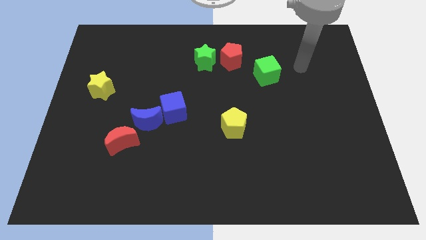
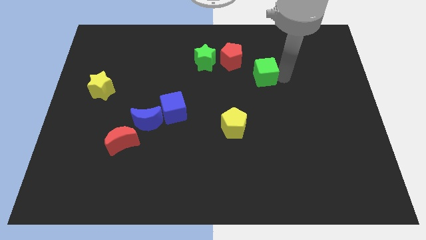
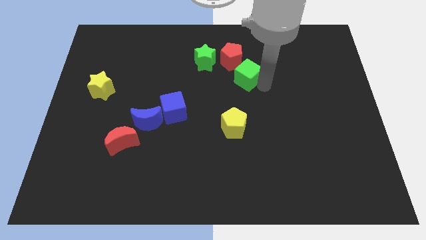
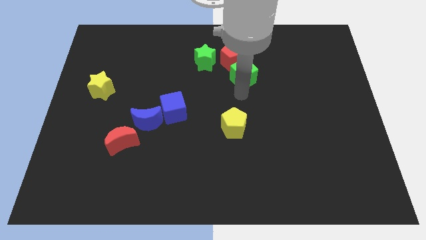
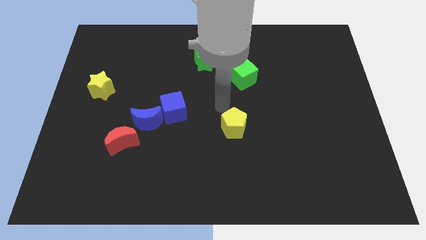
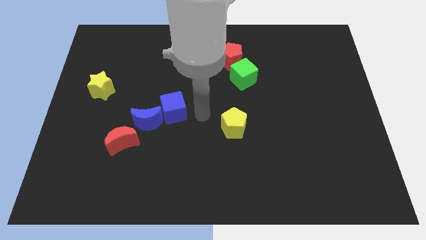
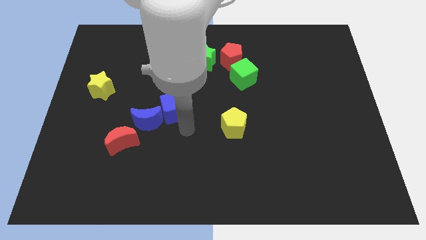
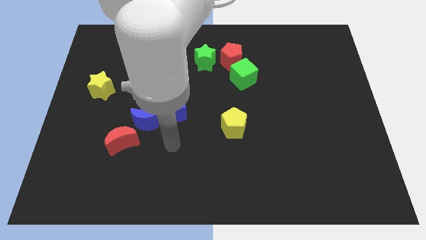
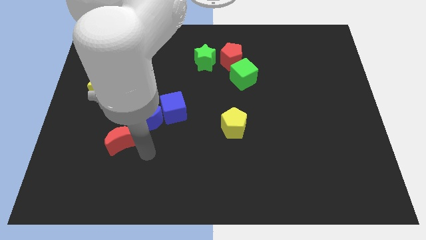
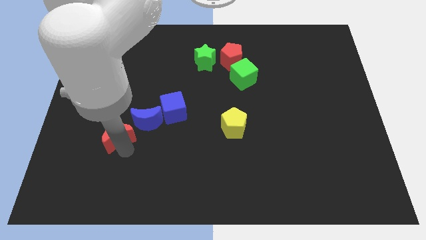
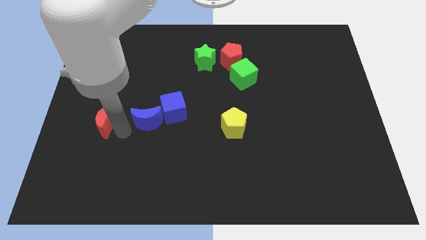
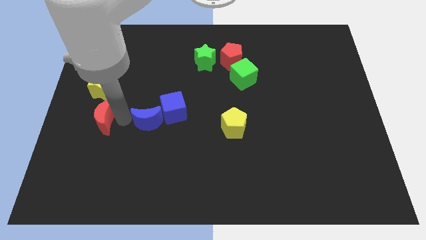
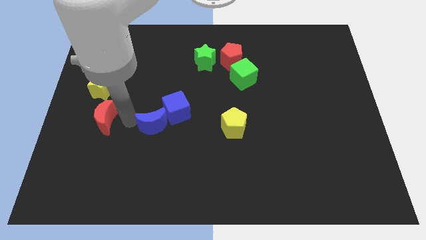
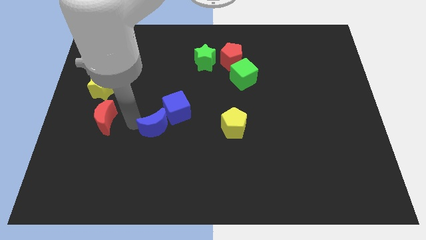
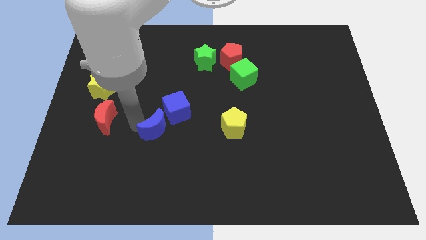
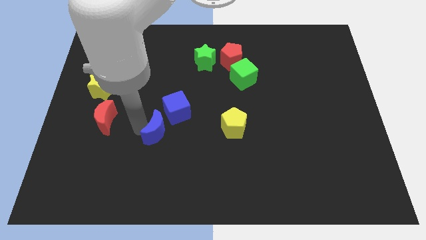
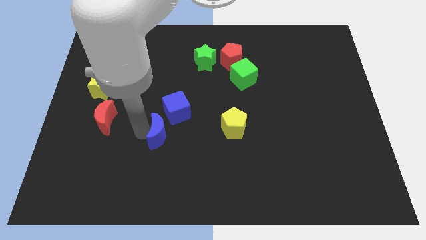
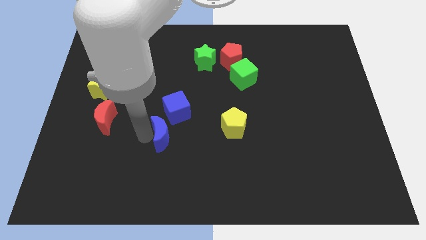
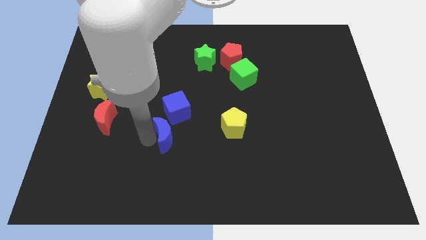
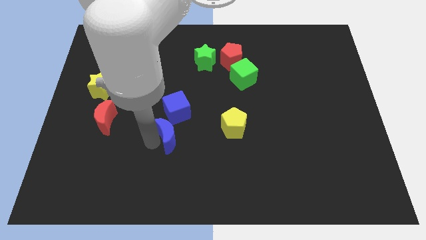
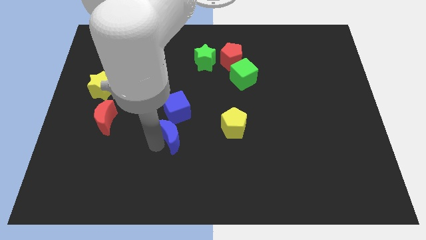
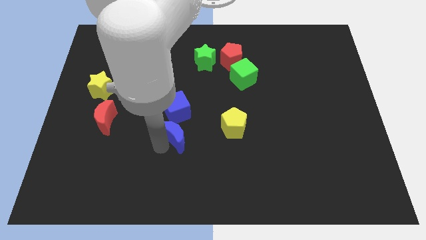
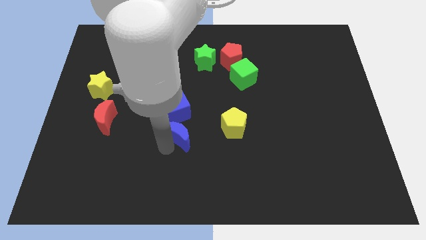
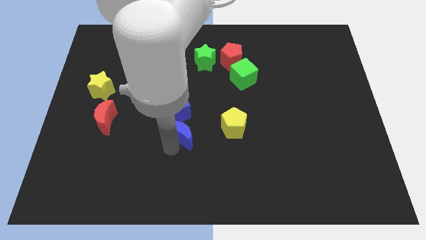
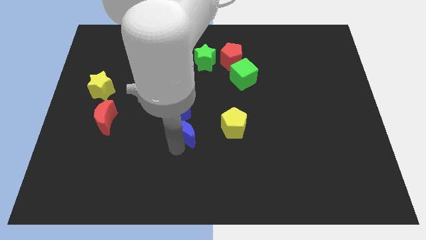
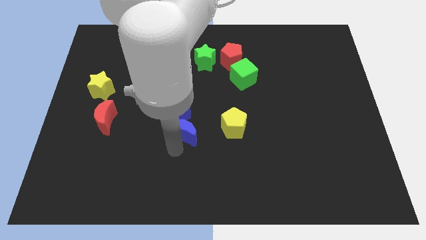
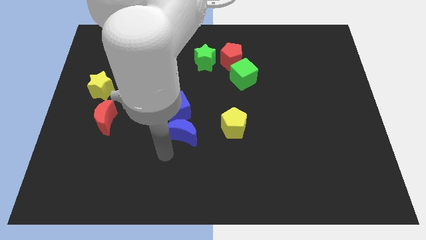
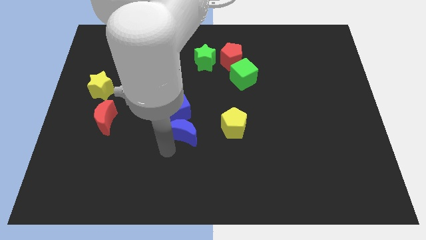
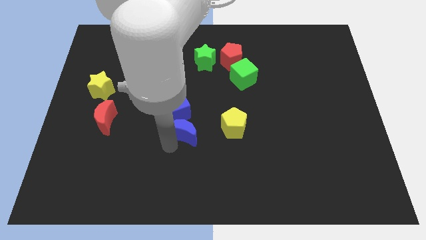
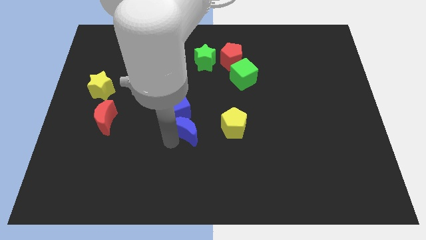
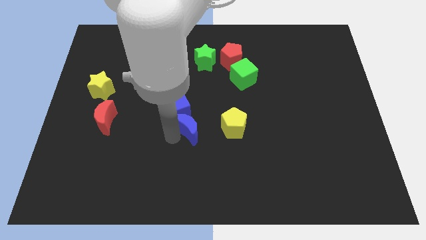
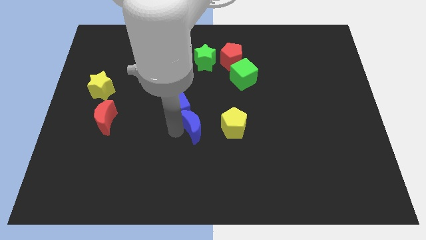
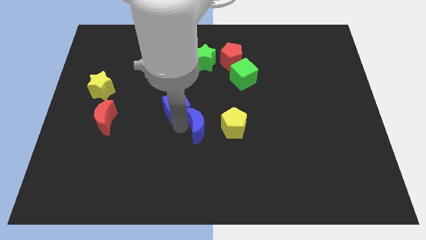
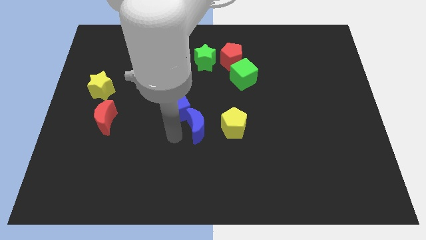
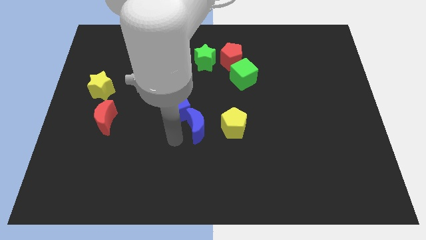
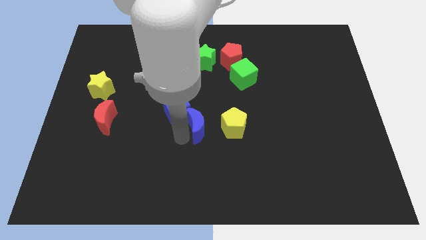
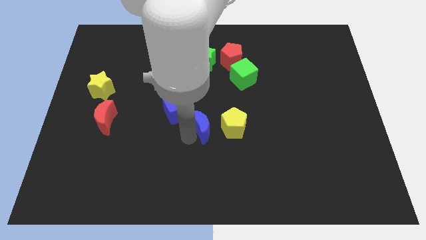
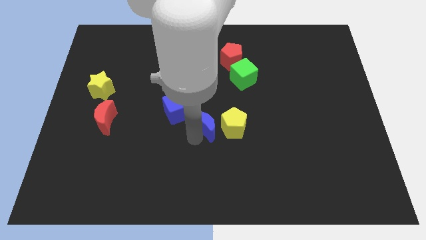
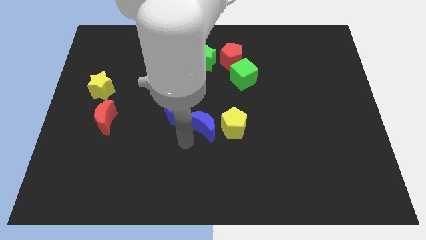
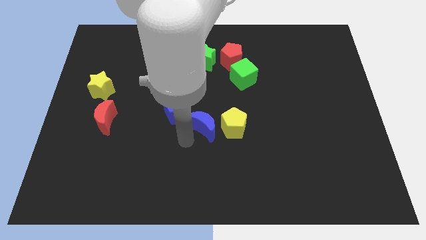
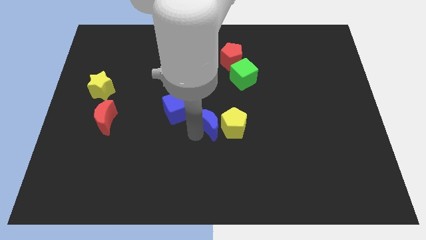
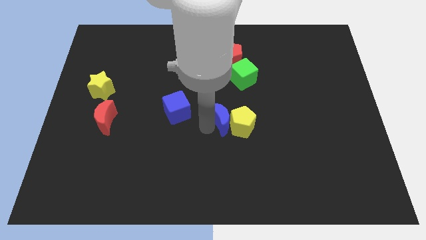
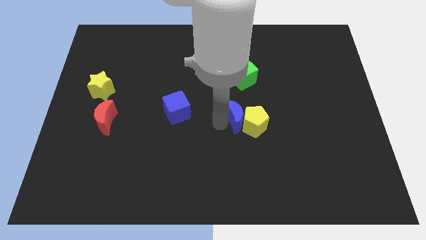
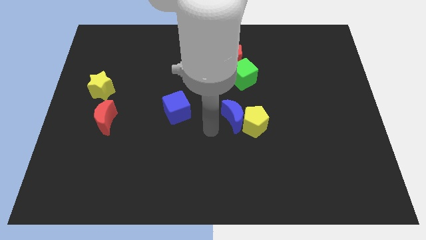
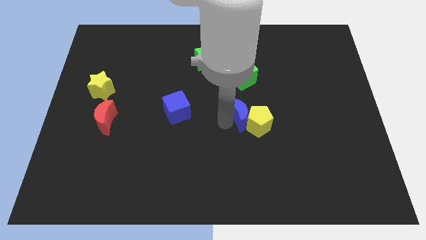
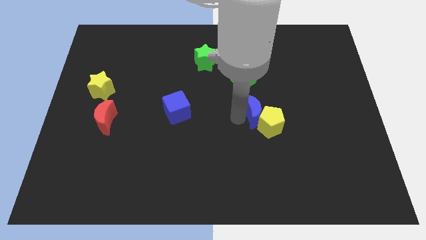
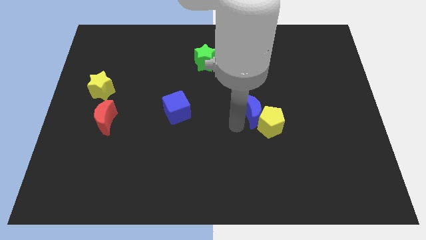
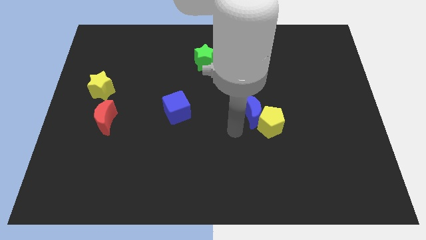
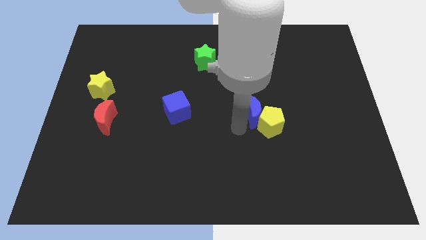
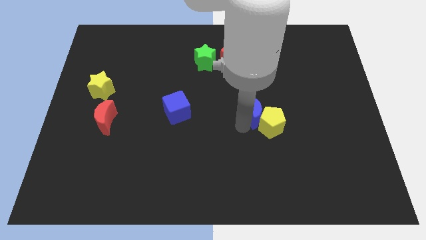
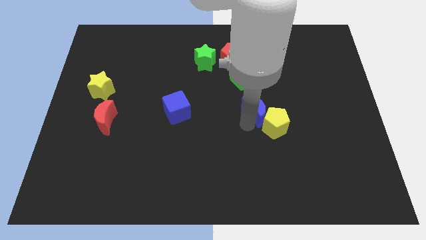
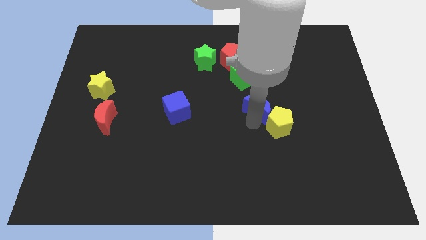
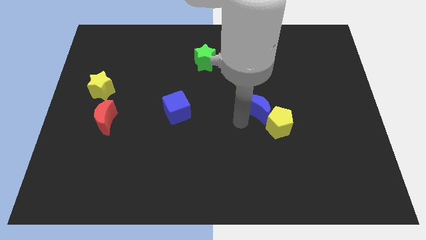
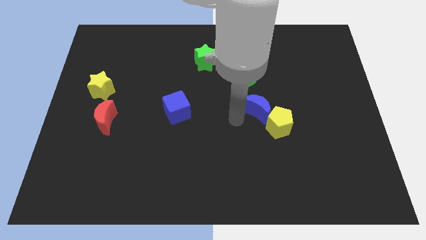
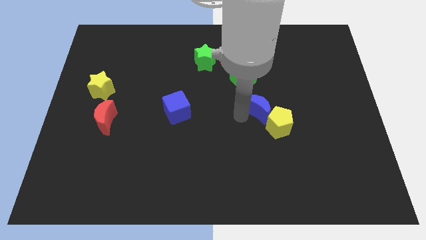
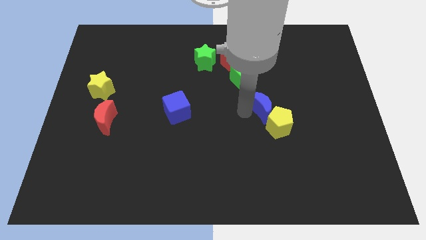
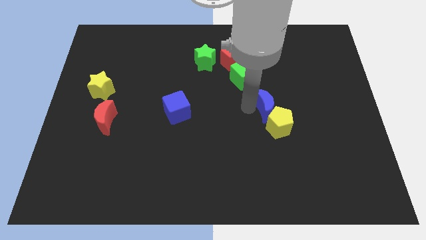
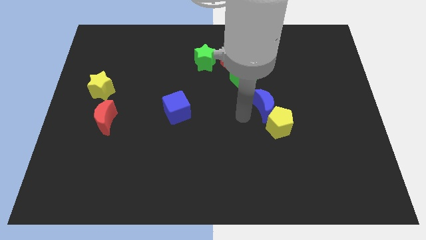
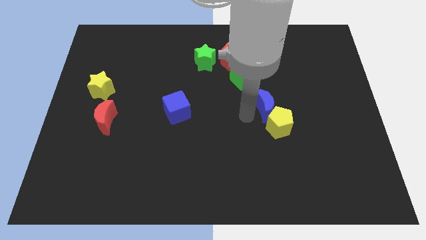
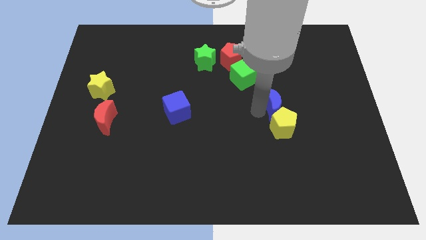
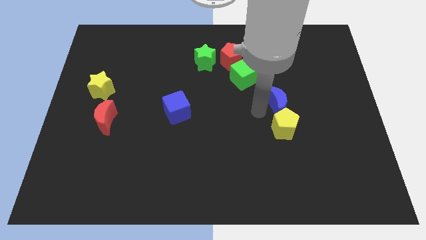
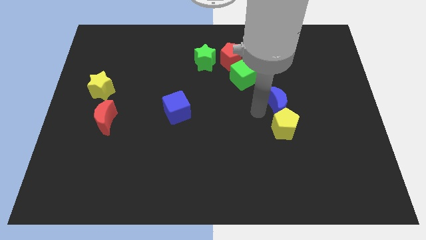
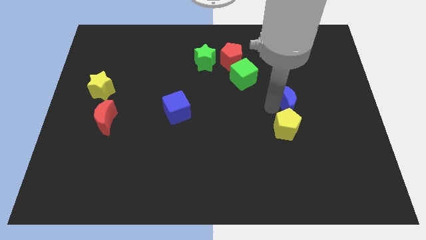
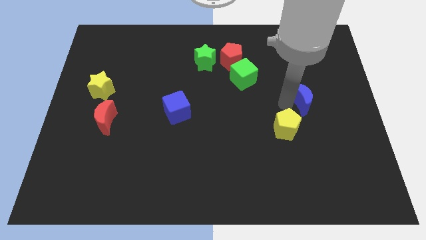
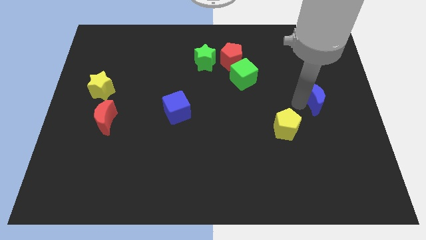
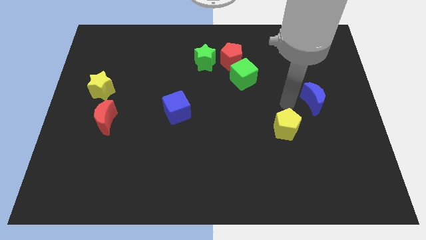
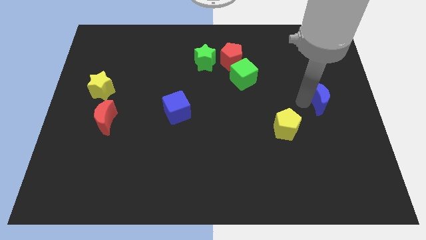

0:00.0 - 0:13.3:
push the blue moon to the right side
